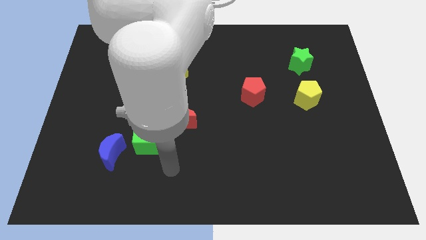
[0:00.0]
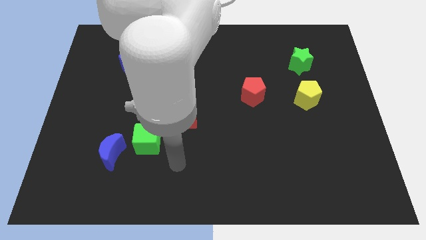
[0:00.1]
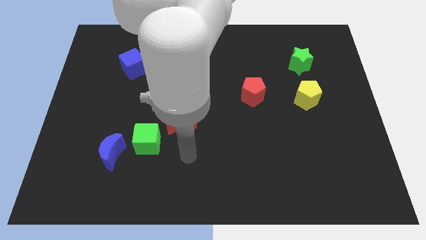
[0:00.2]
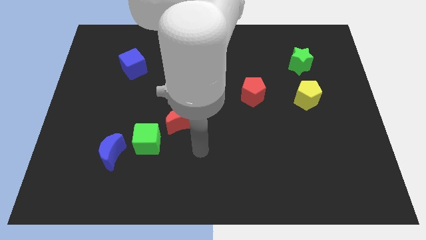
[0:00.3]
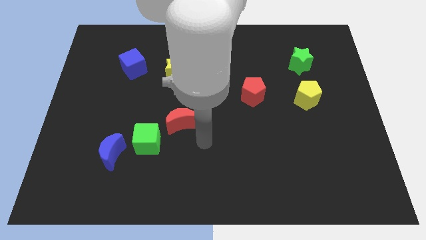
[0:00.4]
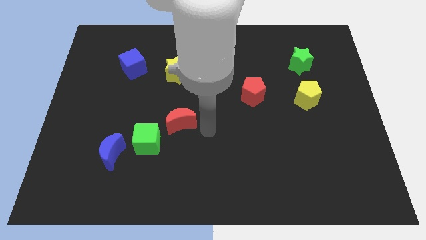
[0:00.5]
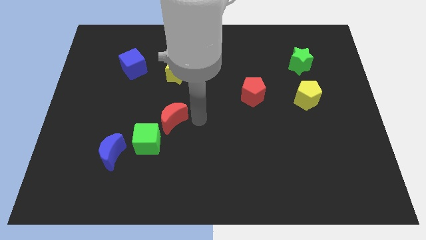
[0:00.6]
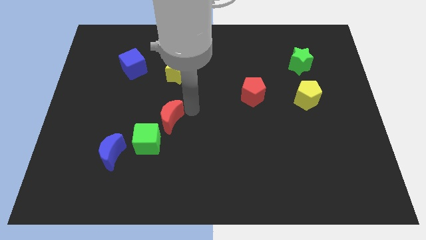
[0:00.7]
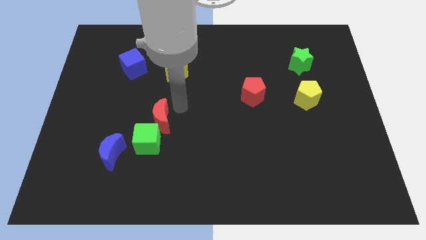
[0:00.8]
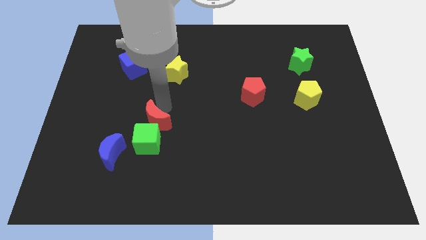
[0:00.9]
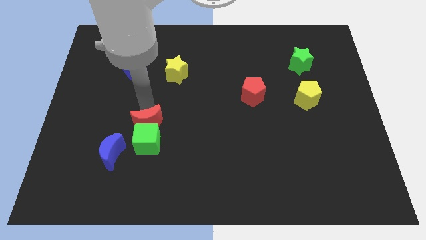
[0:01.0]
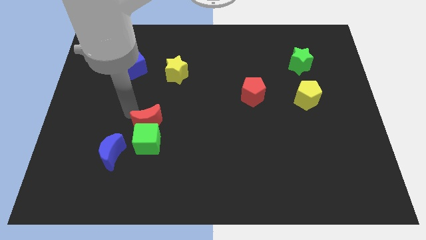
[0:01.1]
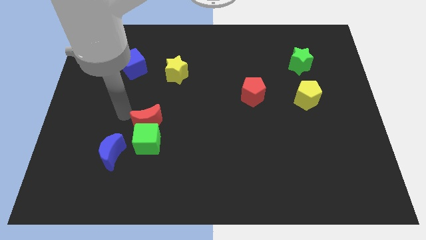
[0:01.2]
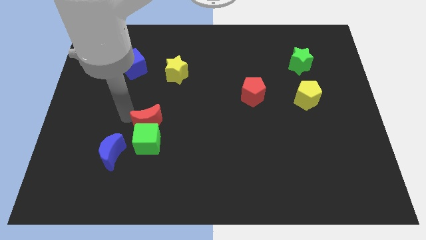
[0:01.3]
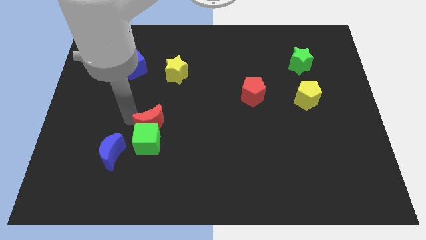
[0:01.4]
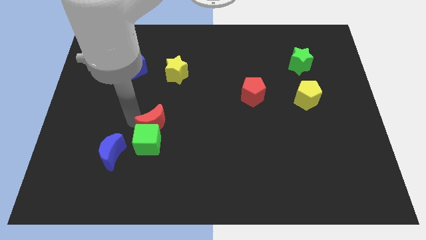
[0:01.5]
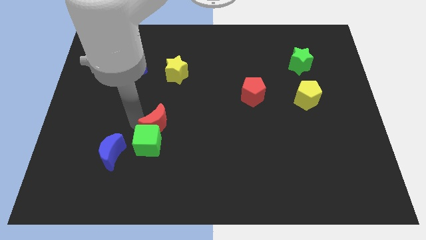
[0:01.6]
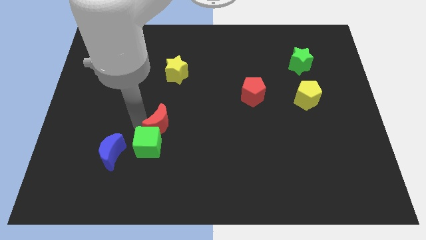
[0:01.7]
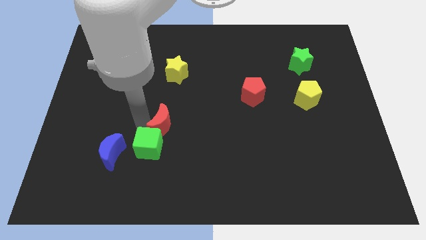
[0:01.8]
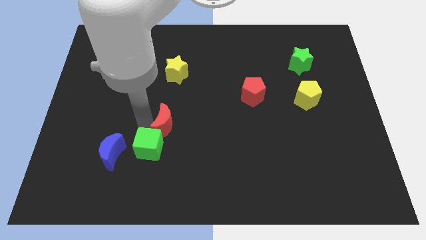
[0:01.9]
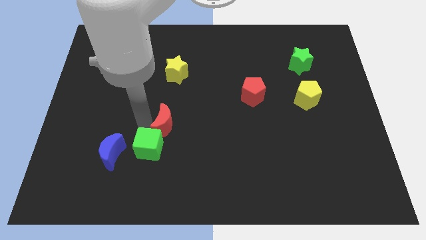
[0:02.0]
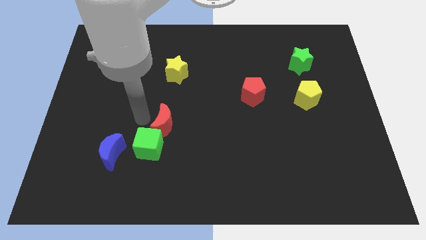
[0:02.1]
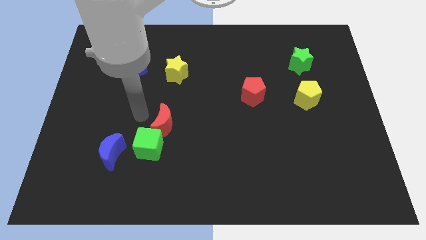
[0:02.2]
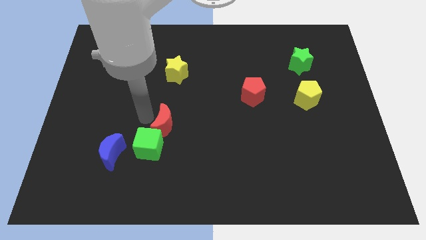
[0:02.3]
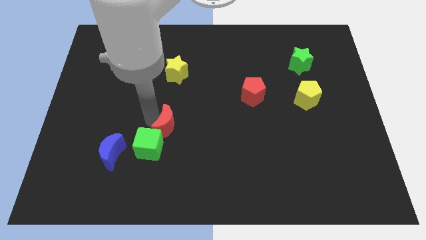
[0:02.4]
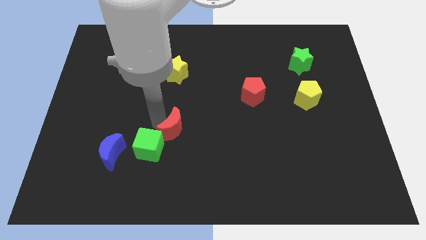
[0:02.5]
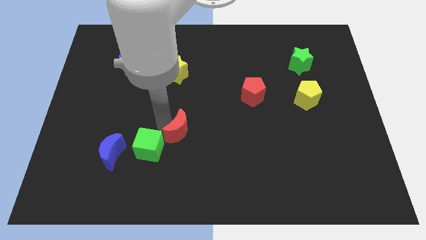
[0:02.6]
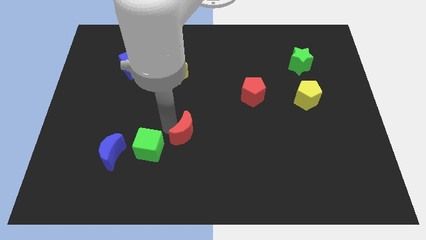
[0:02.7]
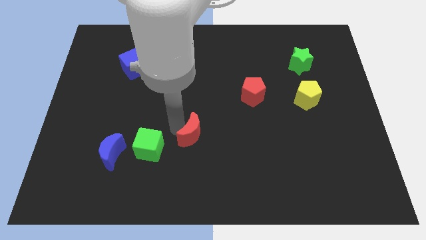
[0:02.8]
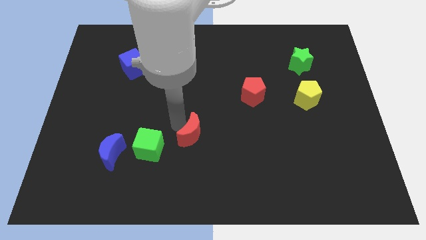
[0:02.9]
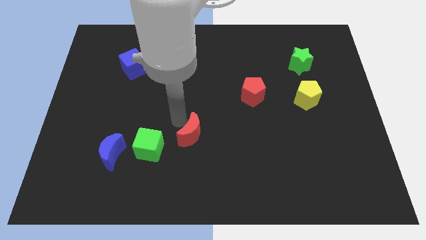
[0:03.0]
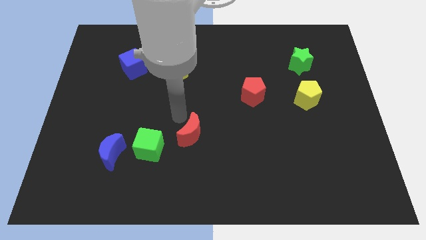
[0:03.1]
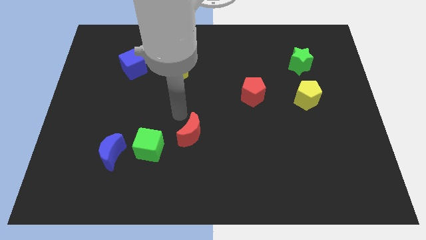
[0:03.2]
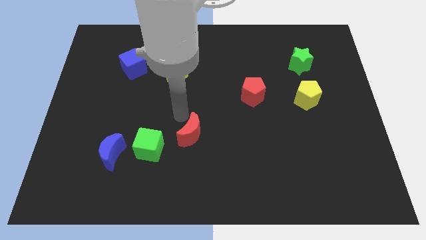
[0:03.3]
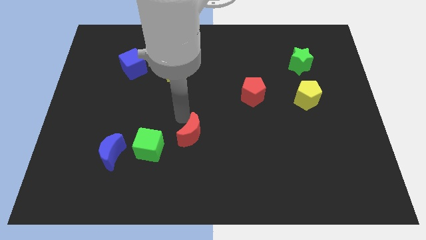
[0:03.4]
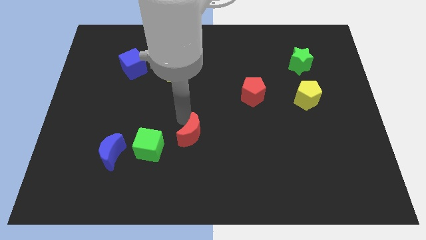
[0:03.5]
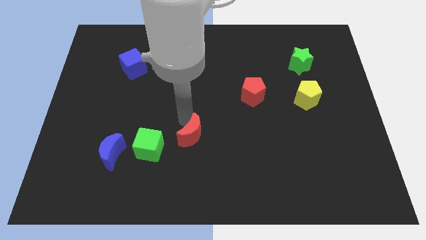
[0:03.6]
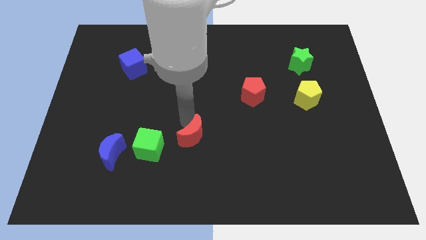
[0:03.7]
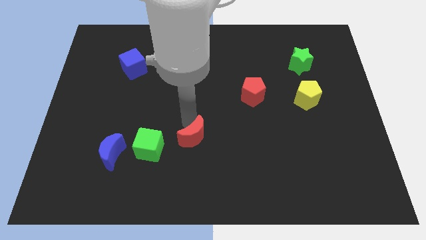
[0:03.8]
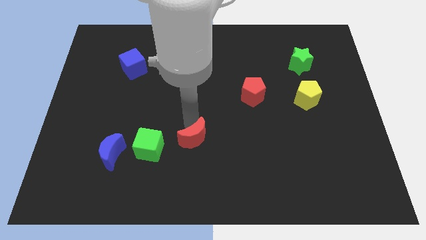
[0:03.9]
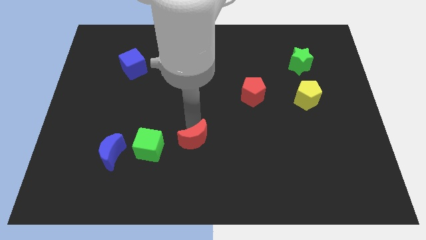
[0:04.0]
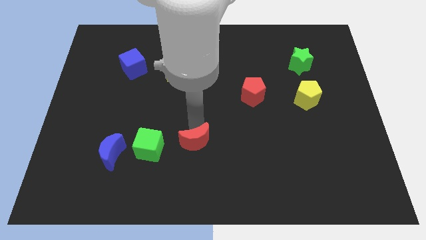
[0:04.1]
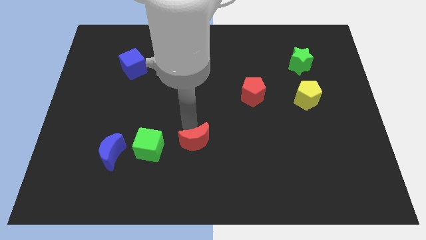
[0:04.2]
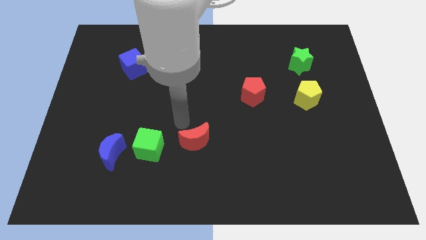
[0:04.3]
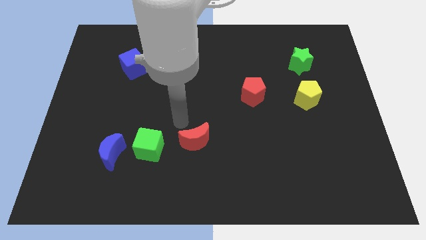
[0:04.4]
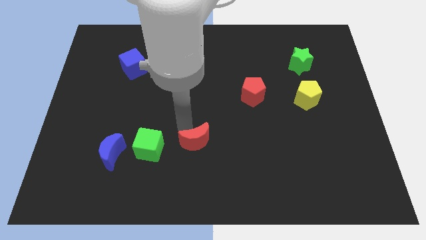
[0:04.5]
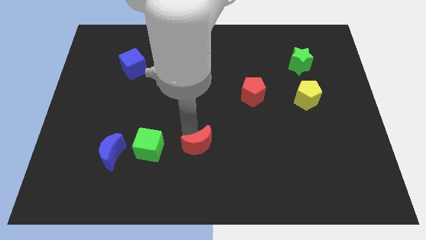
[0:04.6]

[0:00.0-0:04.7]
slide the red moon downwards and then to the right slightly

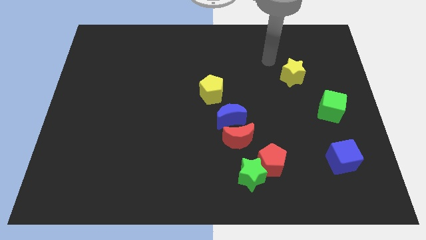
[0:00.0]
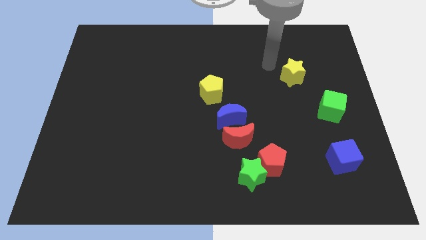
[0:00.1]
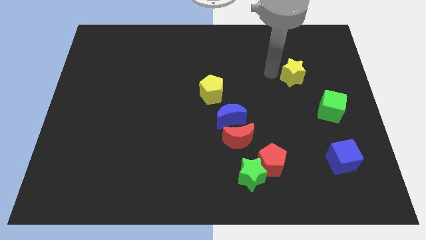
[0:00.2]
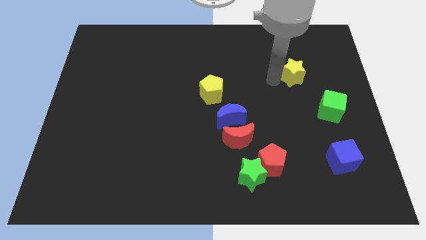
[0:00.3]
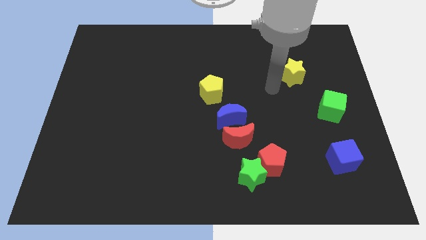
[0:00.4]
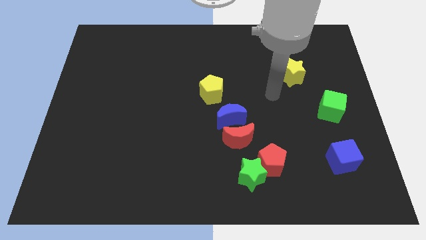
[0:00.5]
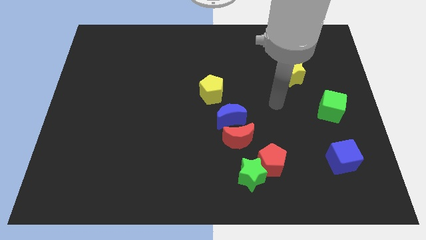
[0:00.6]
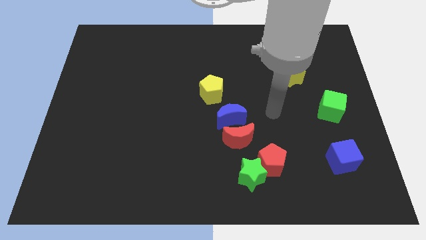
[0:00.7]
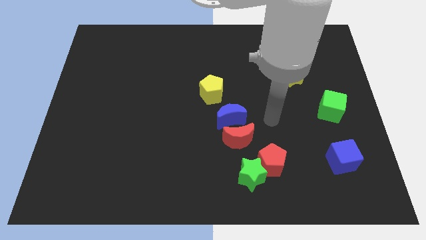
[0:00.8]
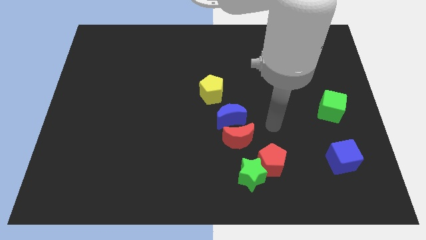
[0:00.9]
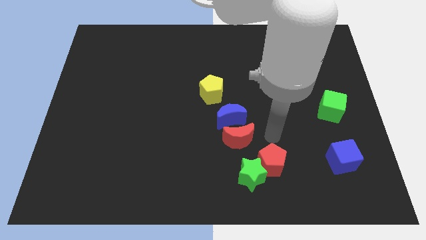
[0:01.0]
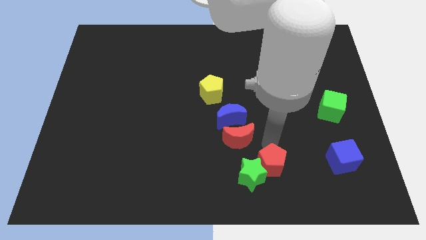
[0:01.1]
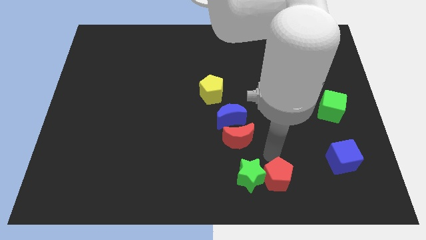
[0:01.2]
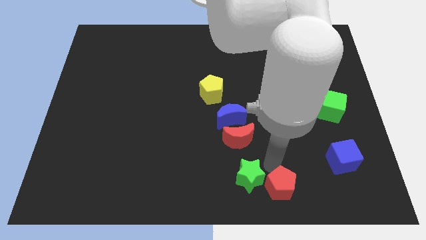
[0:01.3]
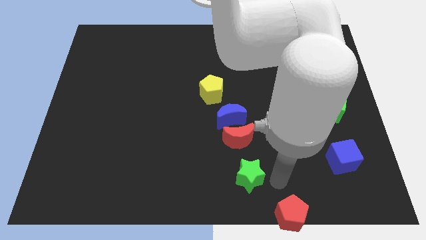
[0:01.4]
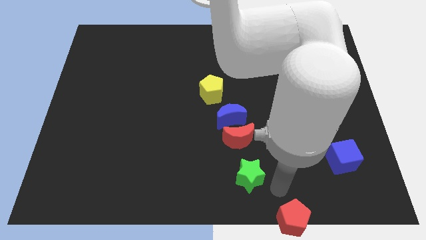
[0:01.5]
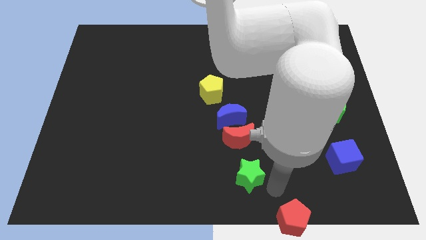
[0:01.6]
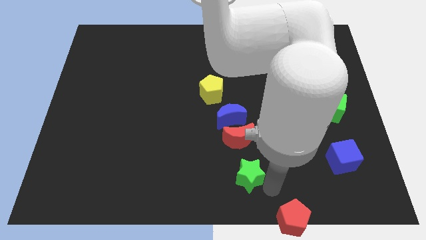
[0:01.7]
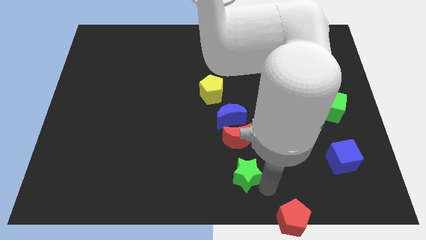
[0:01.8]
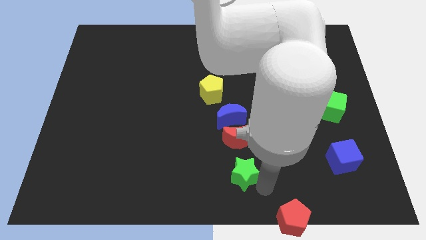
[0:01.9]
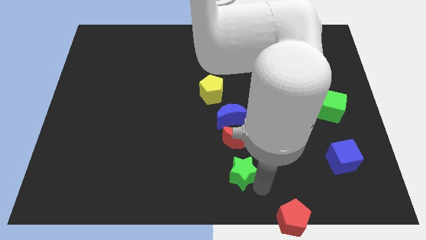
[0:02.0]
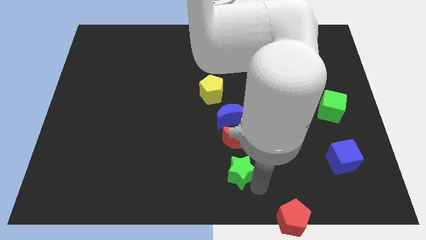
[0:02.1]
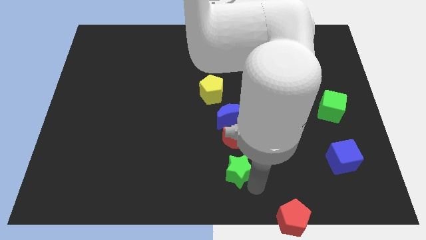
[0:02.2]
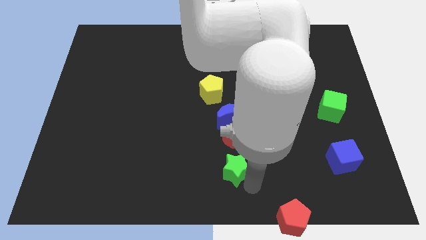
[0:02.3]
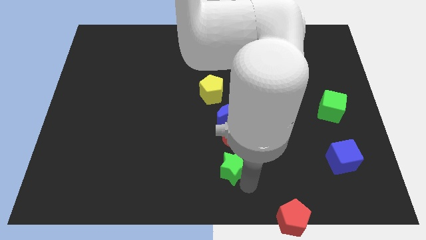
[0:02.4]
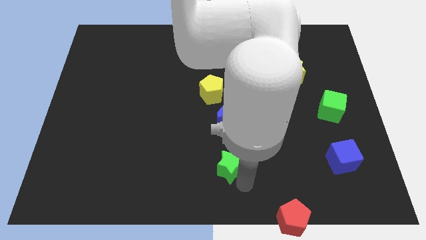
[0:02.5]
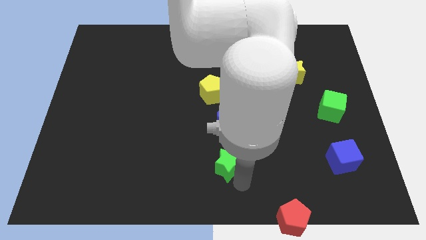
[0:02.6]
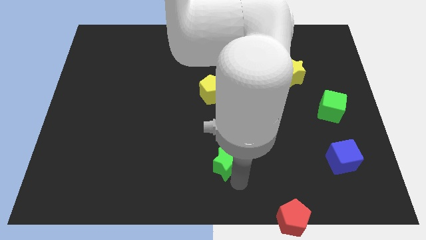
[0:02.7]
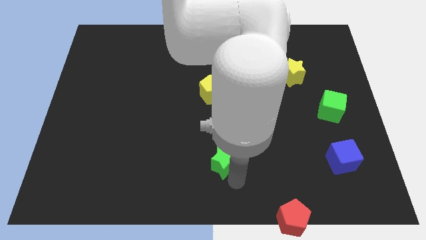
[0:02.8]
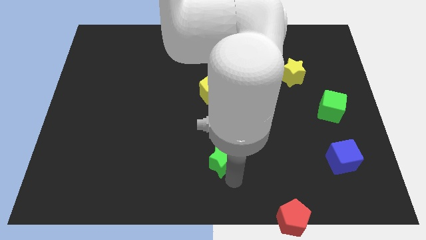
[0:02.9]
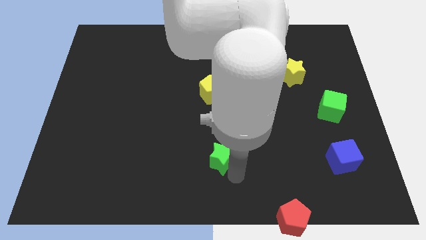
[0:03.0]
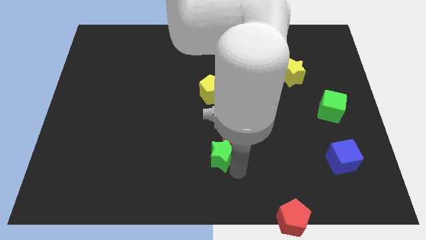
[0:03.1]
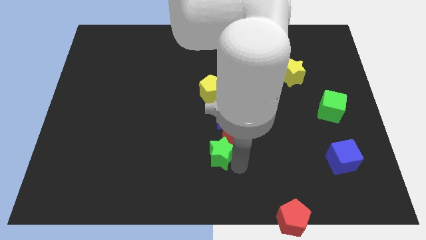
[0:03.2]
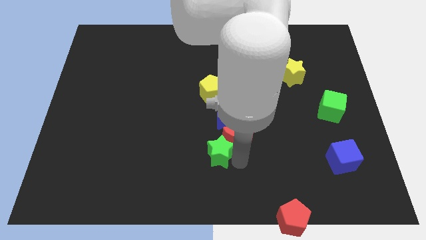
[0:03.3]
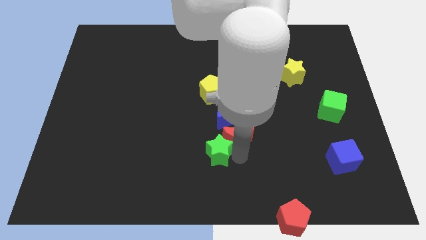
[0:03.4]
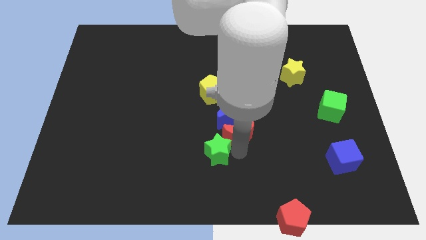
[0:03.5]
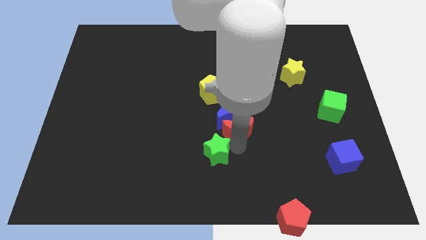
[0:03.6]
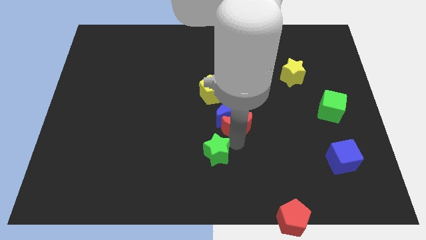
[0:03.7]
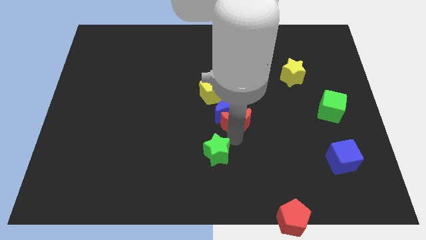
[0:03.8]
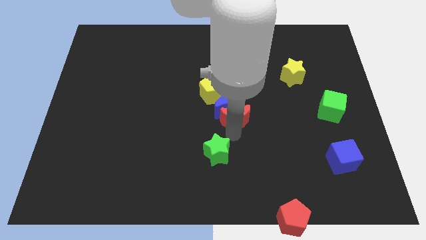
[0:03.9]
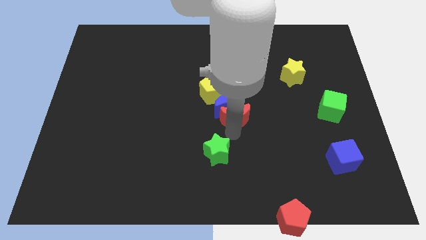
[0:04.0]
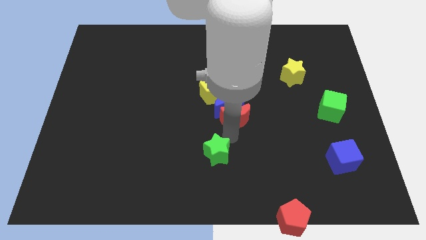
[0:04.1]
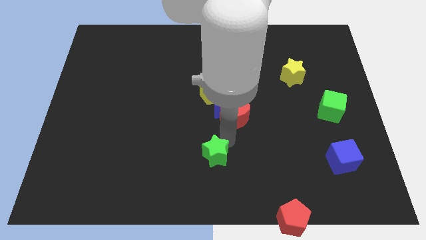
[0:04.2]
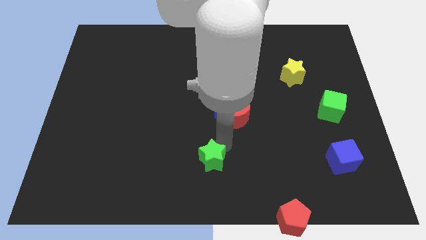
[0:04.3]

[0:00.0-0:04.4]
move the green star a little bit to the left
